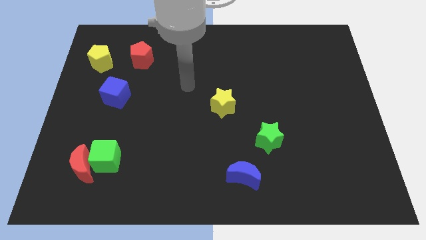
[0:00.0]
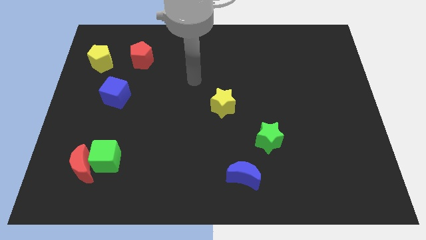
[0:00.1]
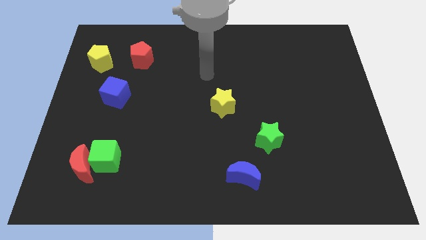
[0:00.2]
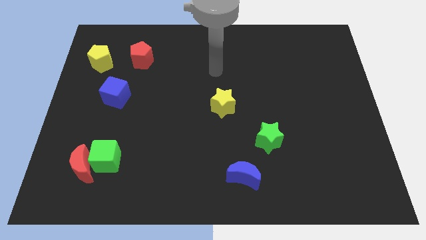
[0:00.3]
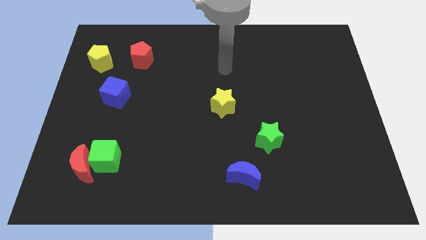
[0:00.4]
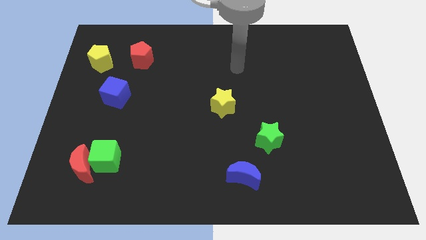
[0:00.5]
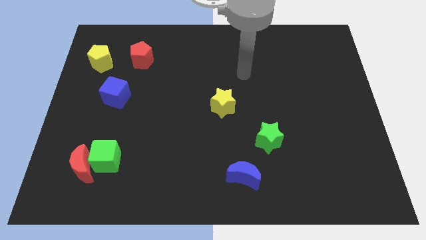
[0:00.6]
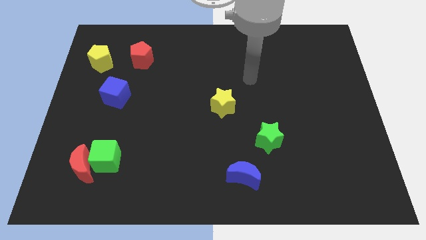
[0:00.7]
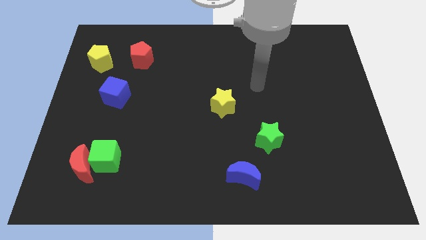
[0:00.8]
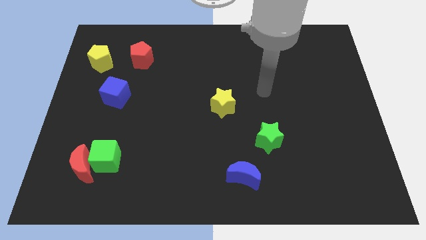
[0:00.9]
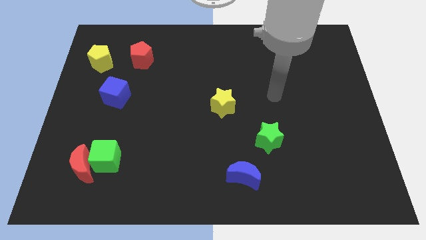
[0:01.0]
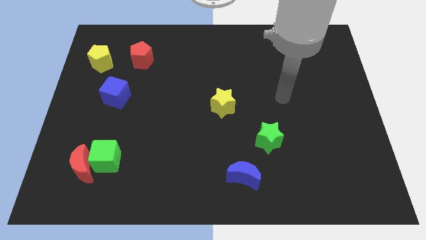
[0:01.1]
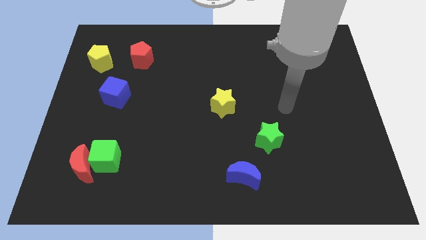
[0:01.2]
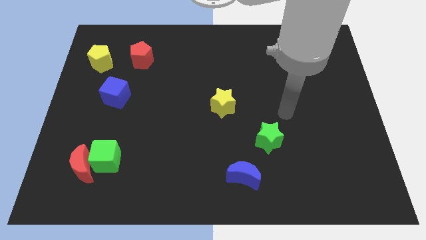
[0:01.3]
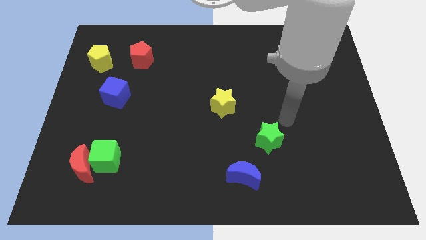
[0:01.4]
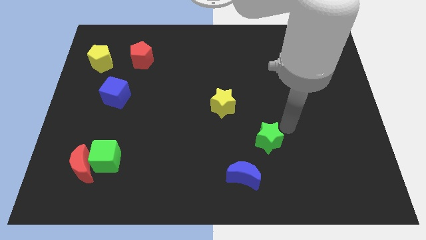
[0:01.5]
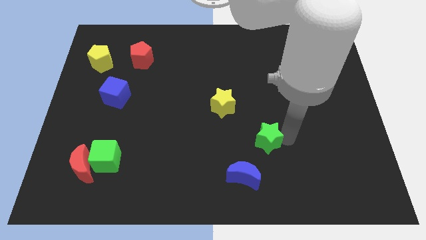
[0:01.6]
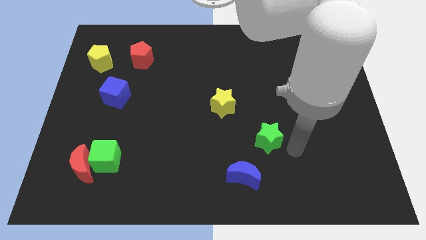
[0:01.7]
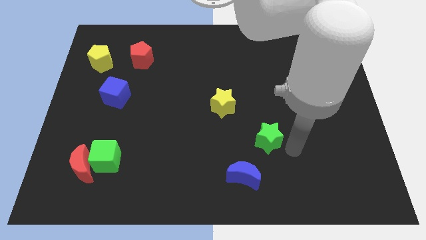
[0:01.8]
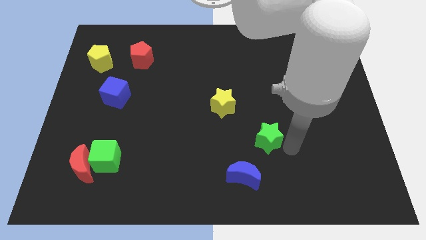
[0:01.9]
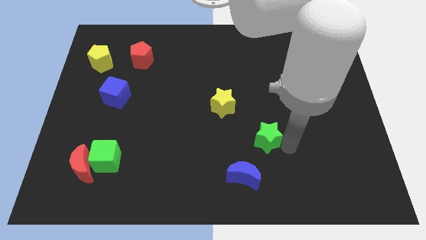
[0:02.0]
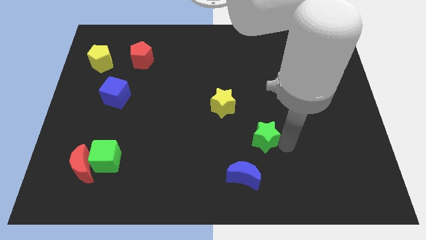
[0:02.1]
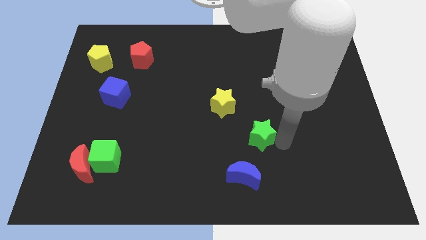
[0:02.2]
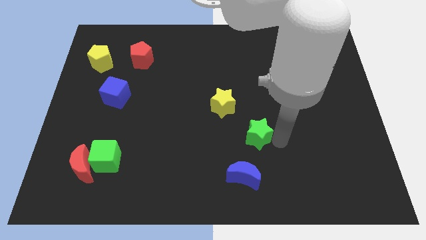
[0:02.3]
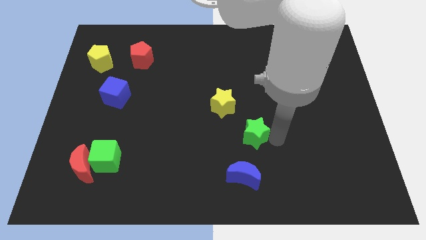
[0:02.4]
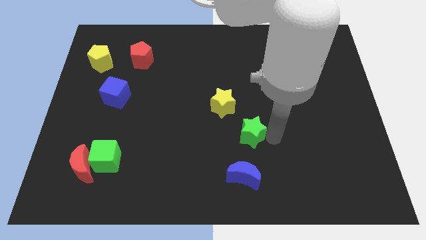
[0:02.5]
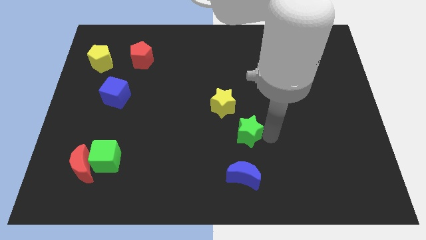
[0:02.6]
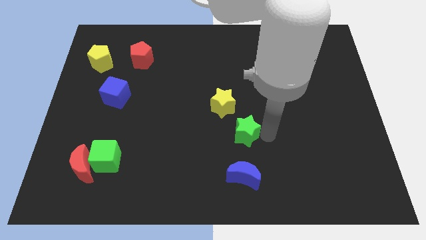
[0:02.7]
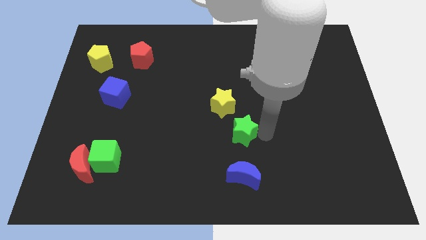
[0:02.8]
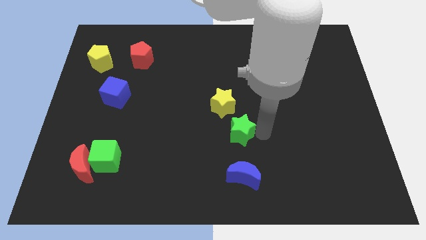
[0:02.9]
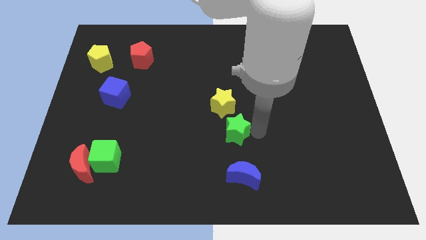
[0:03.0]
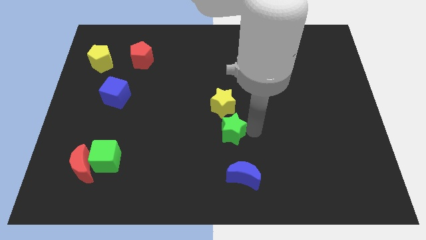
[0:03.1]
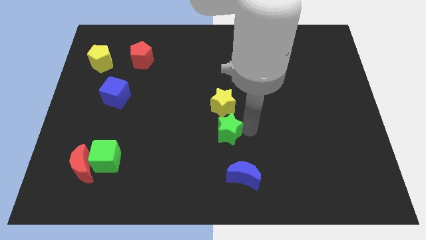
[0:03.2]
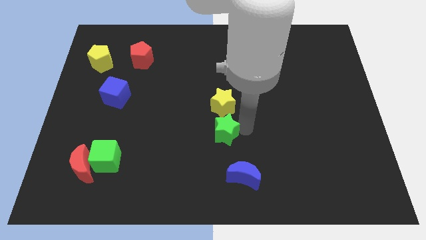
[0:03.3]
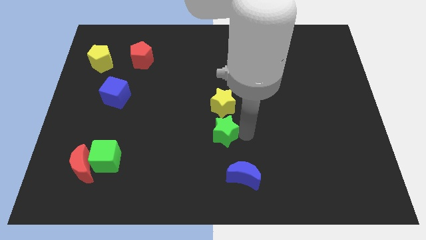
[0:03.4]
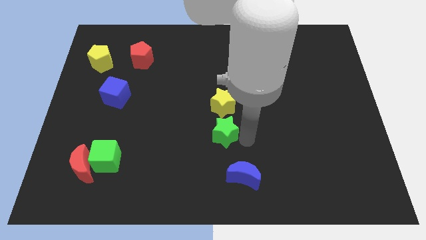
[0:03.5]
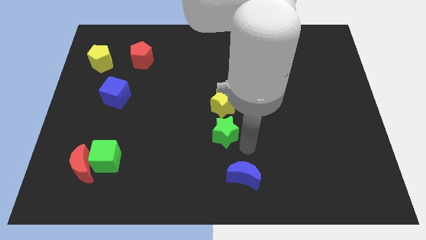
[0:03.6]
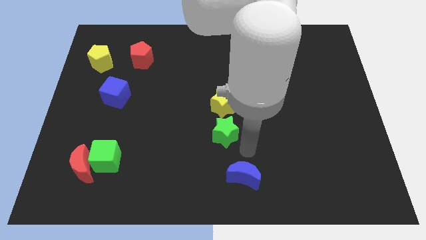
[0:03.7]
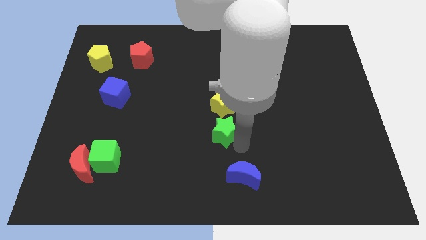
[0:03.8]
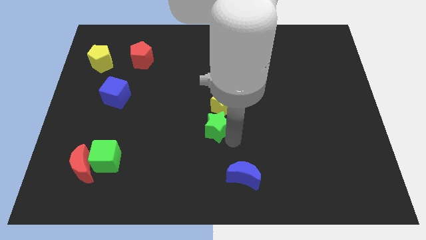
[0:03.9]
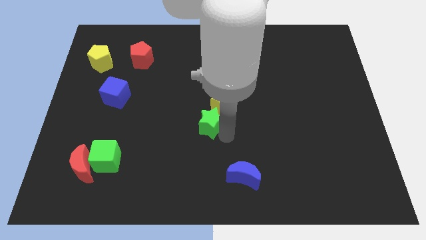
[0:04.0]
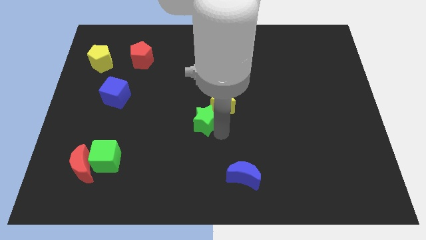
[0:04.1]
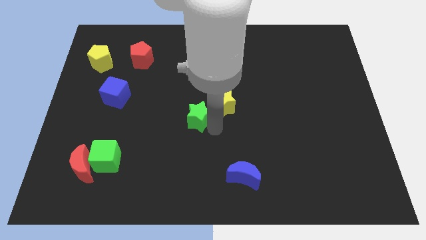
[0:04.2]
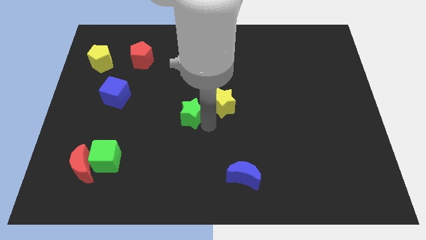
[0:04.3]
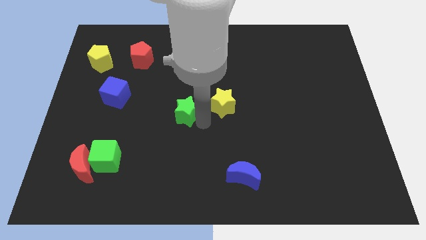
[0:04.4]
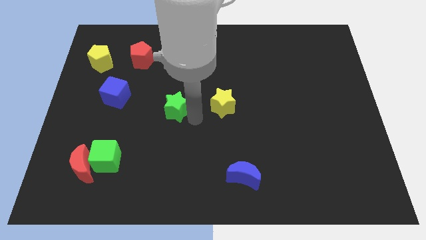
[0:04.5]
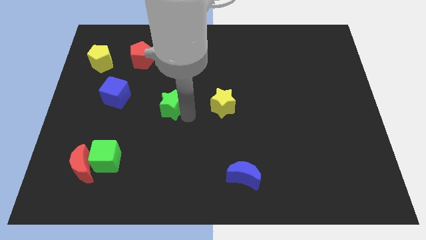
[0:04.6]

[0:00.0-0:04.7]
slide the green star to the right side of the blue cube

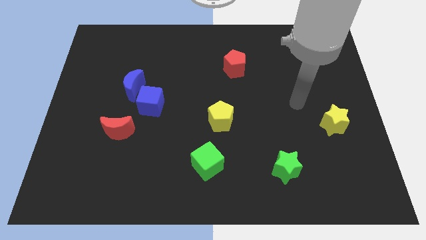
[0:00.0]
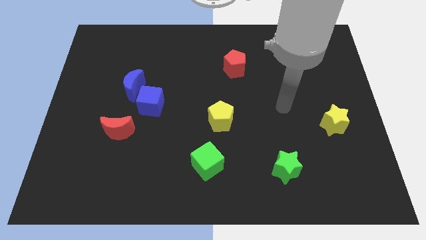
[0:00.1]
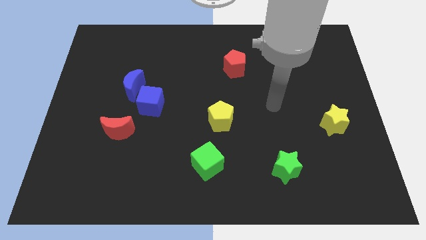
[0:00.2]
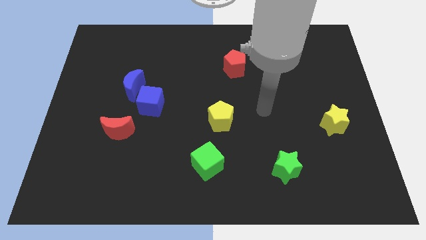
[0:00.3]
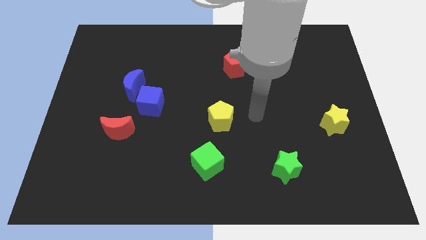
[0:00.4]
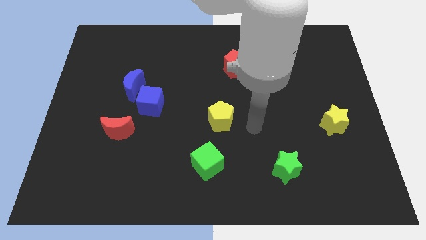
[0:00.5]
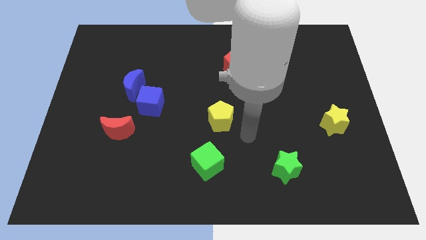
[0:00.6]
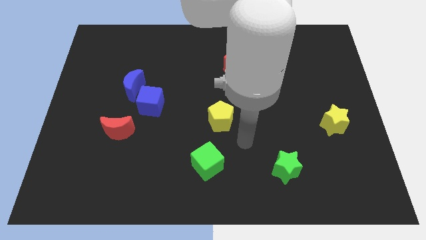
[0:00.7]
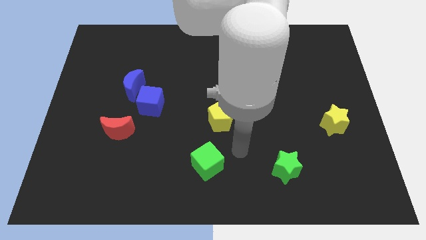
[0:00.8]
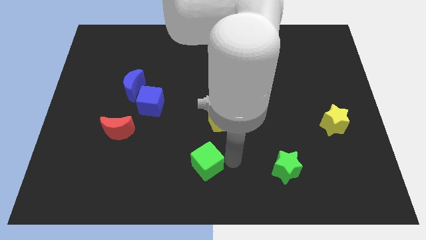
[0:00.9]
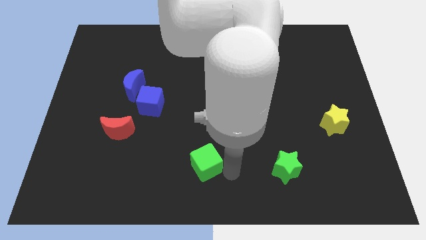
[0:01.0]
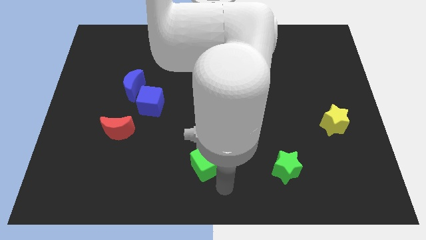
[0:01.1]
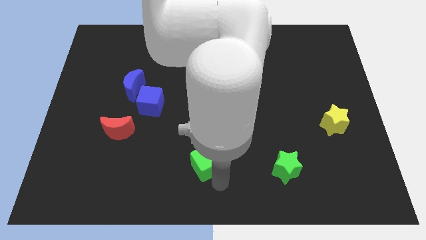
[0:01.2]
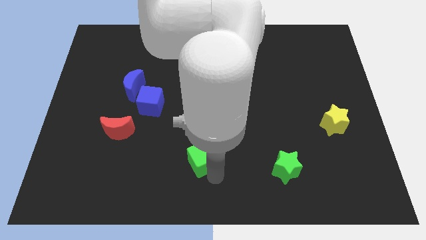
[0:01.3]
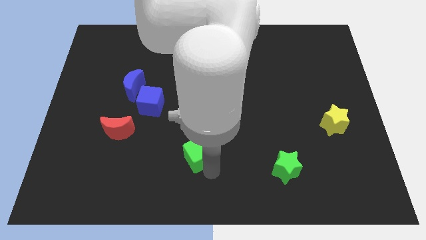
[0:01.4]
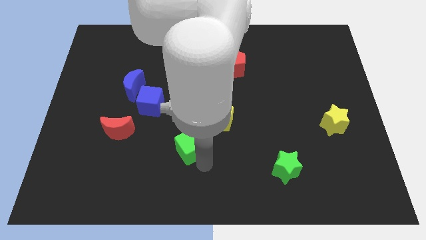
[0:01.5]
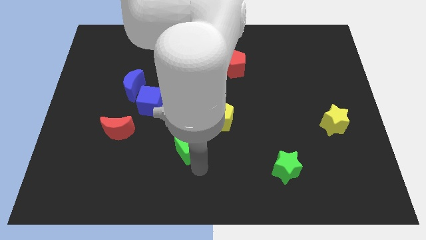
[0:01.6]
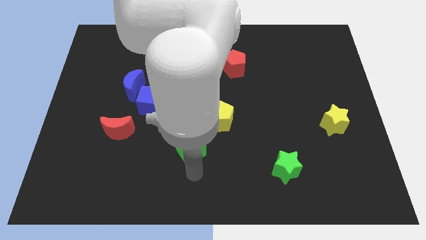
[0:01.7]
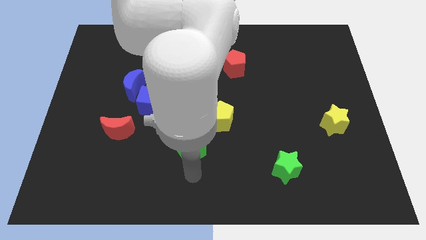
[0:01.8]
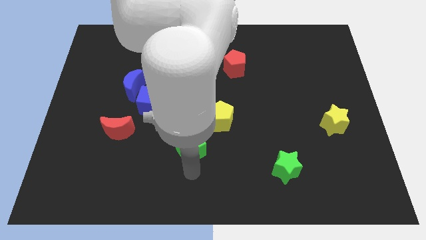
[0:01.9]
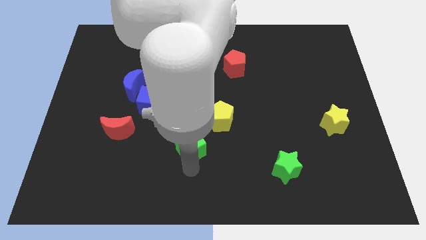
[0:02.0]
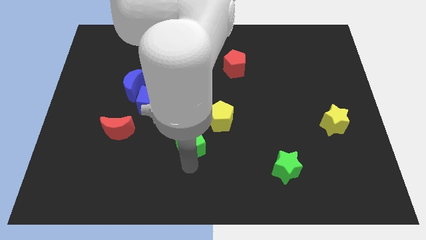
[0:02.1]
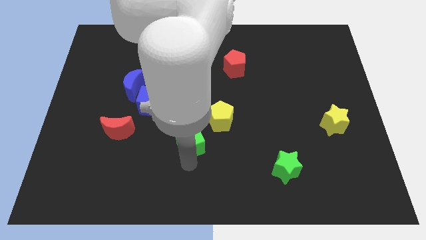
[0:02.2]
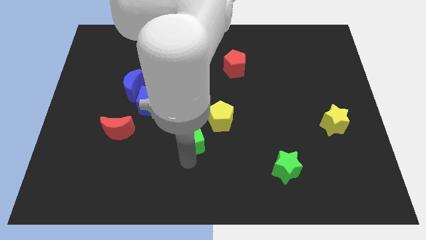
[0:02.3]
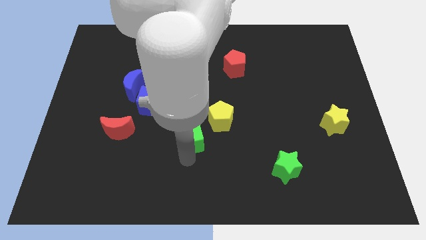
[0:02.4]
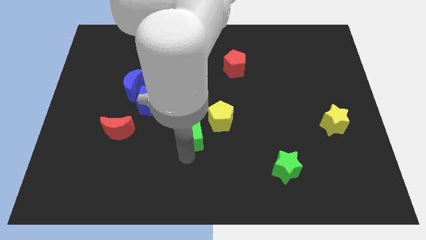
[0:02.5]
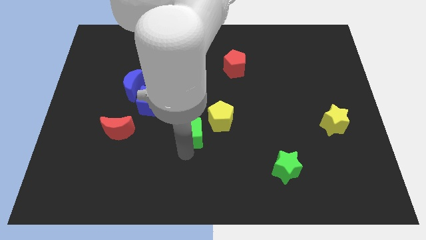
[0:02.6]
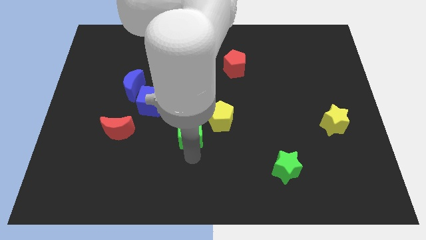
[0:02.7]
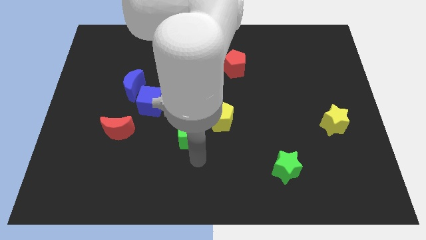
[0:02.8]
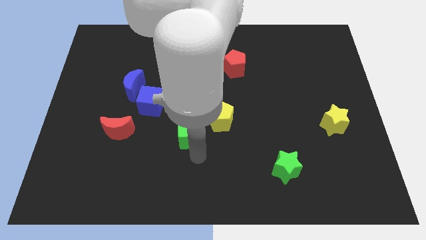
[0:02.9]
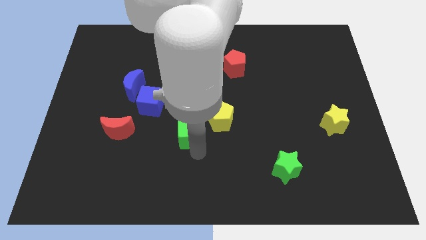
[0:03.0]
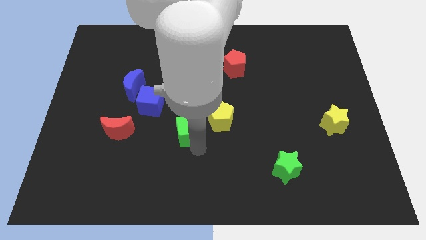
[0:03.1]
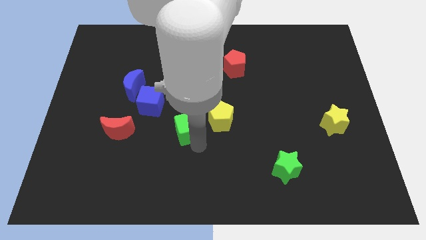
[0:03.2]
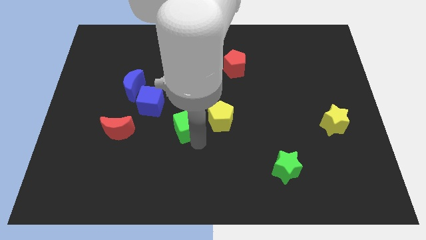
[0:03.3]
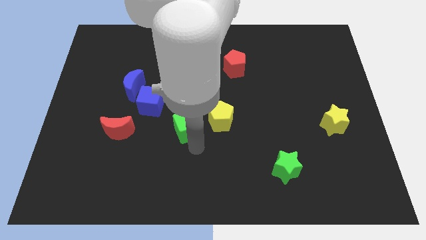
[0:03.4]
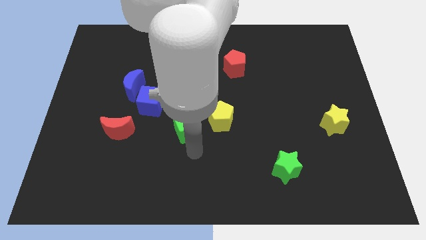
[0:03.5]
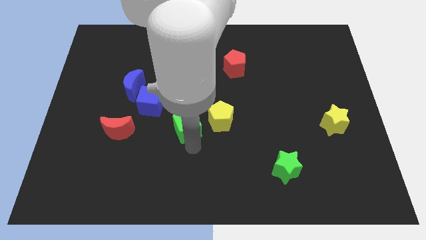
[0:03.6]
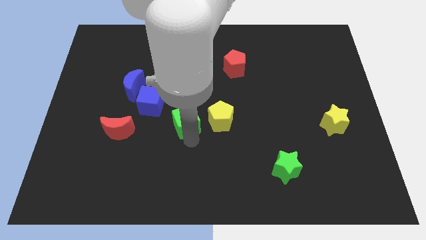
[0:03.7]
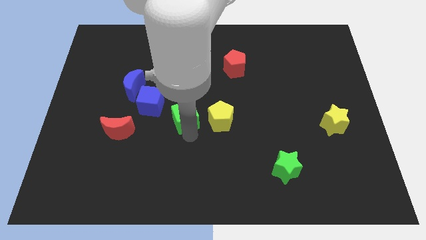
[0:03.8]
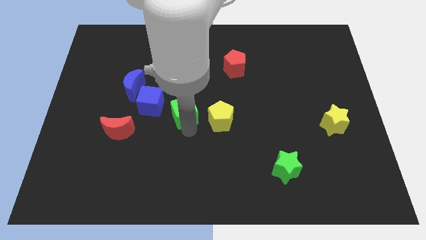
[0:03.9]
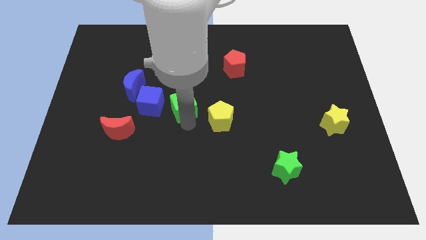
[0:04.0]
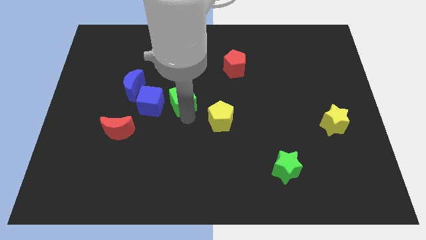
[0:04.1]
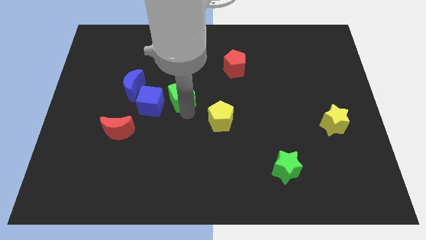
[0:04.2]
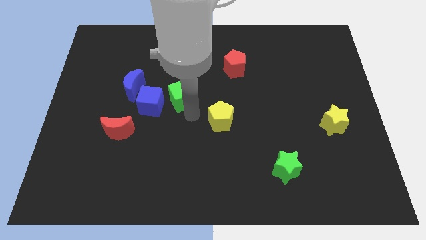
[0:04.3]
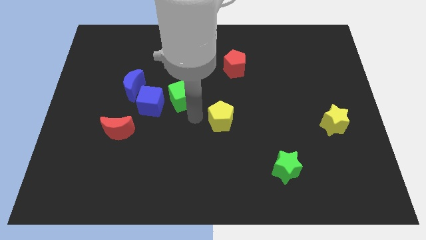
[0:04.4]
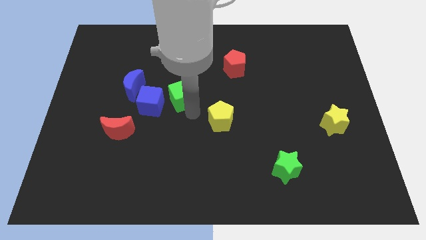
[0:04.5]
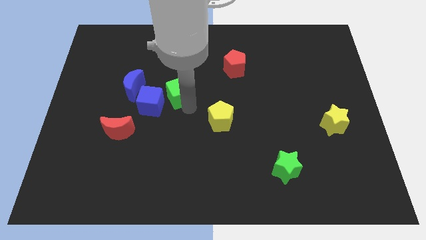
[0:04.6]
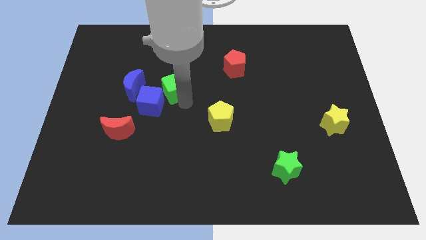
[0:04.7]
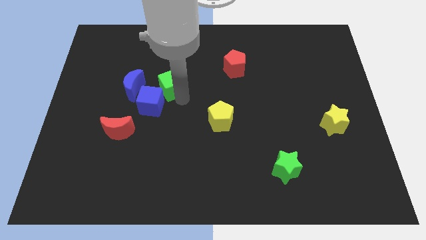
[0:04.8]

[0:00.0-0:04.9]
move the green cube to the top side of the blue cube
